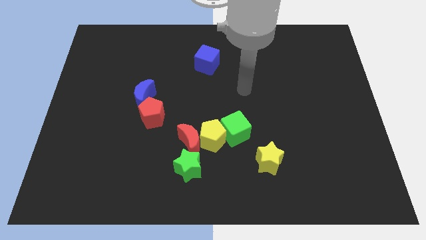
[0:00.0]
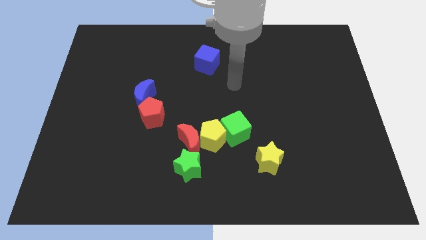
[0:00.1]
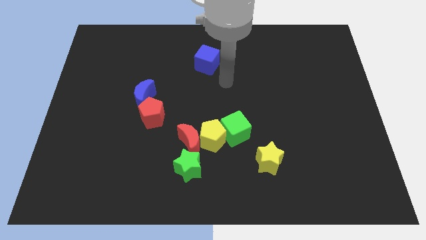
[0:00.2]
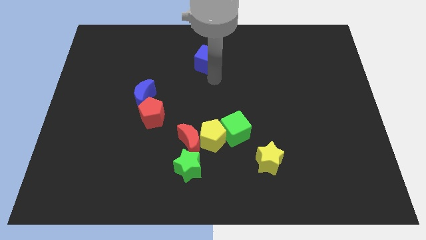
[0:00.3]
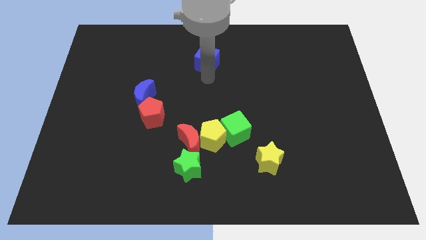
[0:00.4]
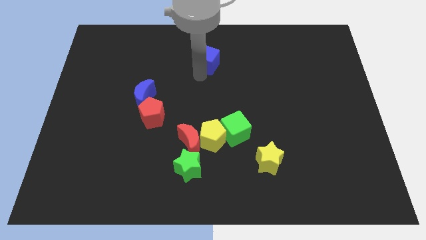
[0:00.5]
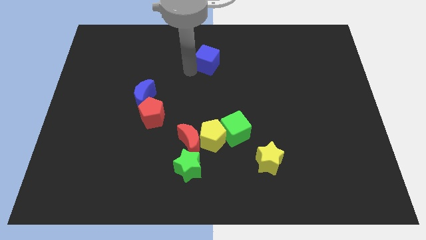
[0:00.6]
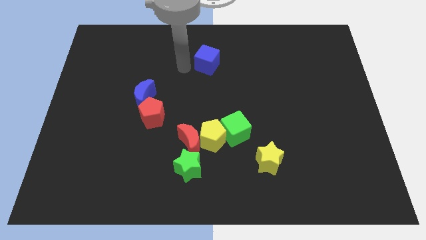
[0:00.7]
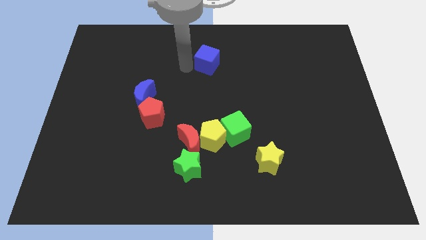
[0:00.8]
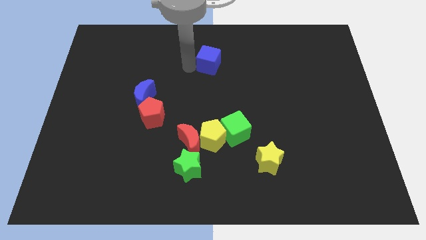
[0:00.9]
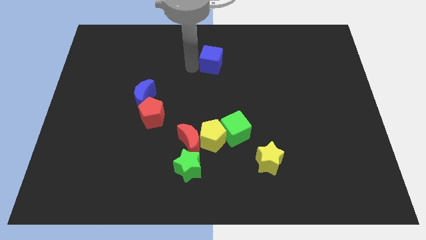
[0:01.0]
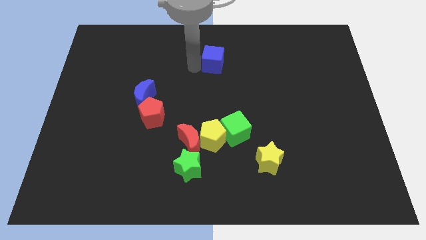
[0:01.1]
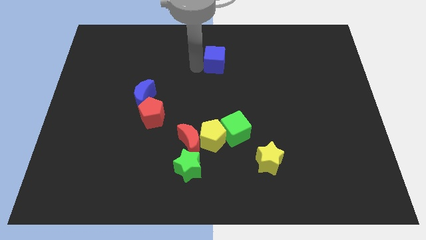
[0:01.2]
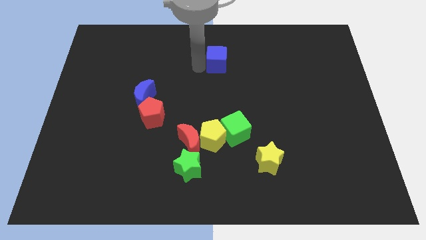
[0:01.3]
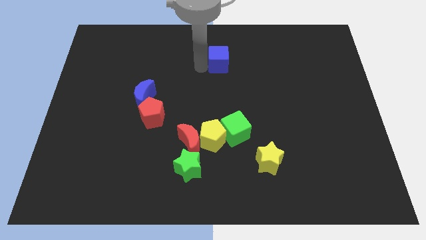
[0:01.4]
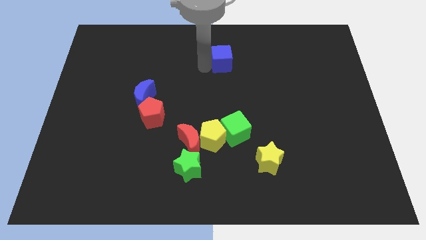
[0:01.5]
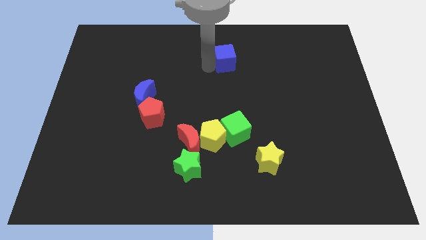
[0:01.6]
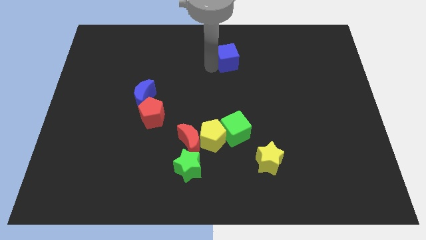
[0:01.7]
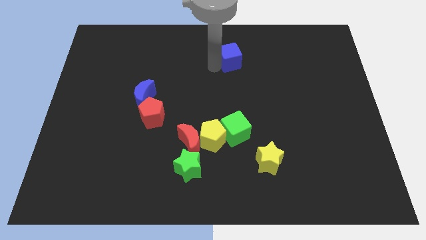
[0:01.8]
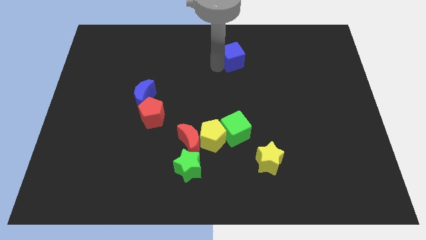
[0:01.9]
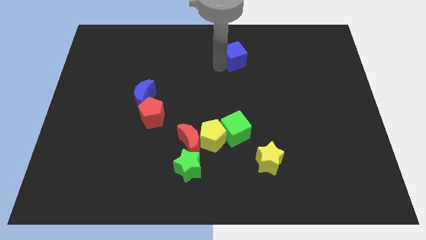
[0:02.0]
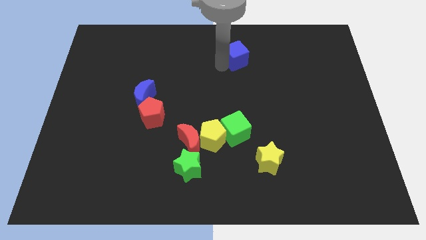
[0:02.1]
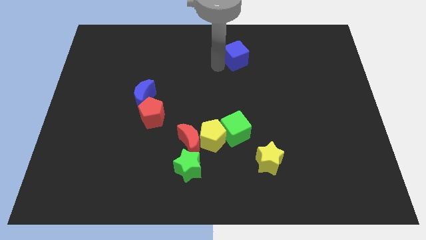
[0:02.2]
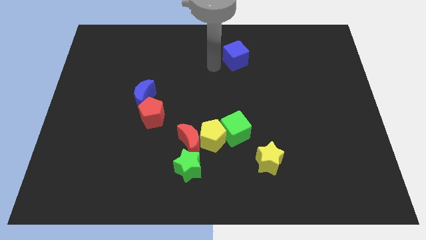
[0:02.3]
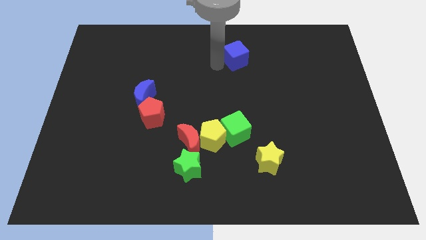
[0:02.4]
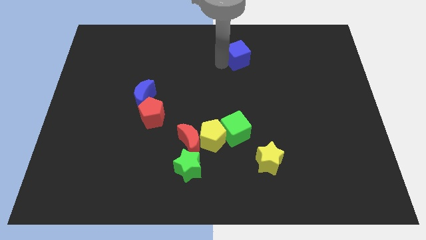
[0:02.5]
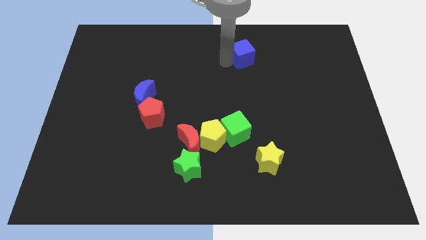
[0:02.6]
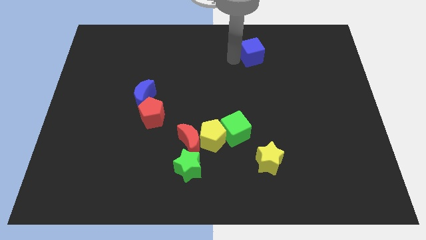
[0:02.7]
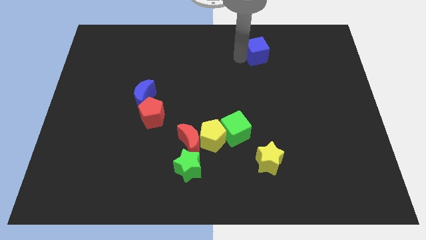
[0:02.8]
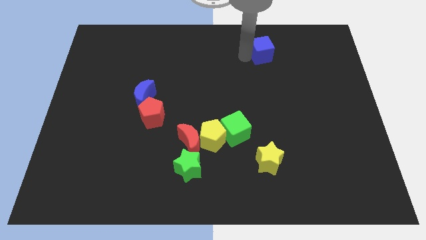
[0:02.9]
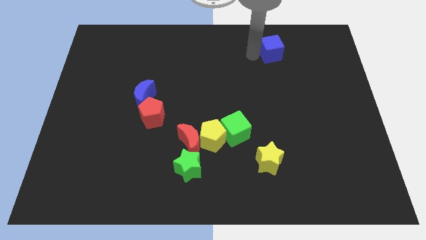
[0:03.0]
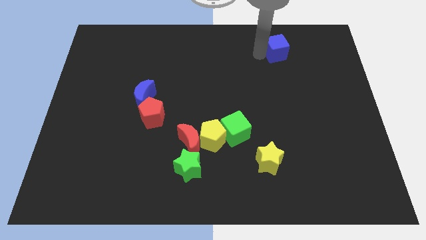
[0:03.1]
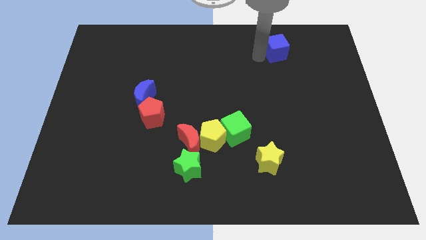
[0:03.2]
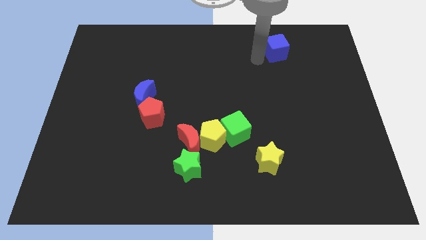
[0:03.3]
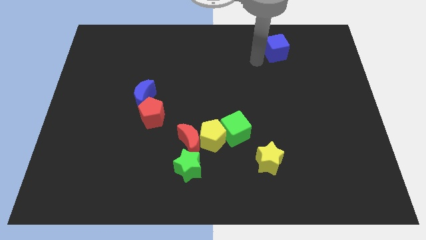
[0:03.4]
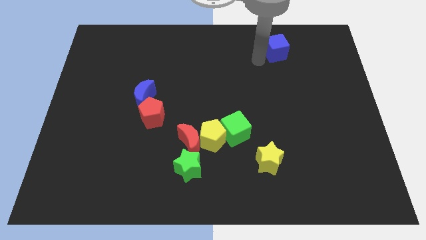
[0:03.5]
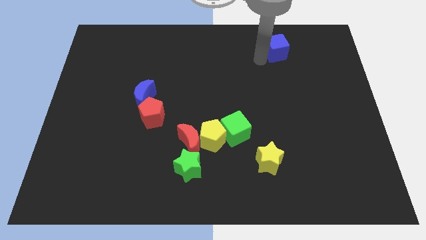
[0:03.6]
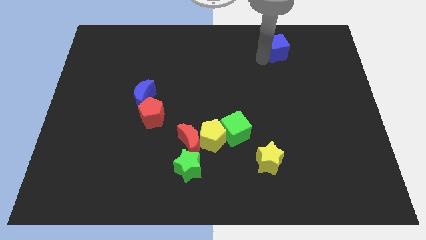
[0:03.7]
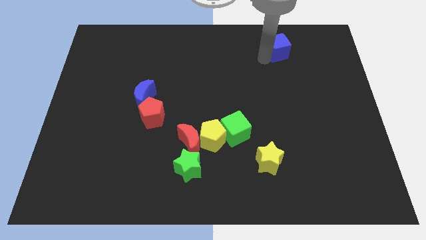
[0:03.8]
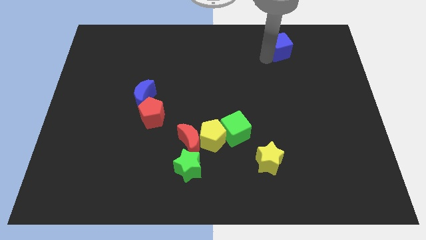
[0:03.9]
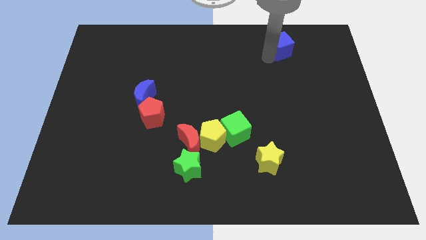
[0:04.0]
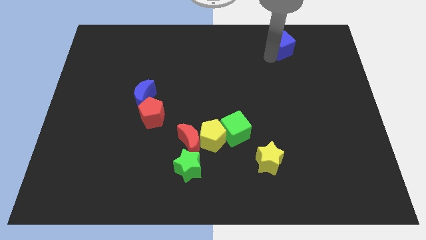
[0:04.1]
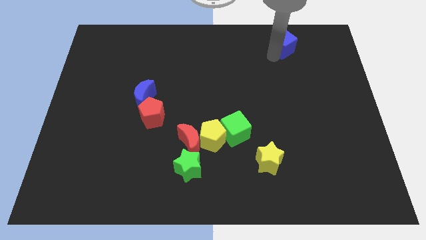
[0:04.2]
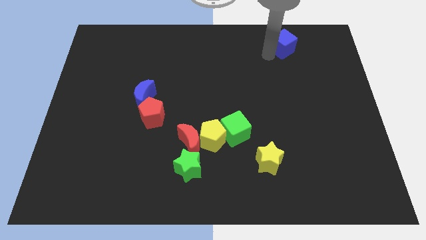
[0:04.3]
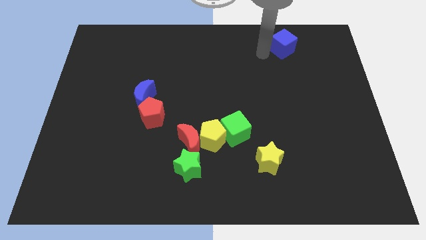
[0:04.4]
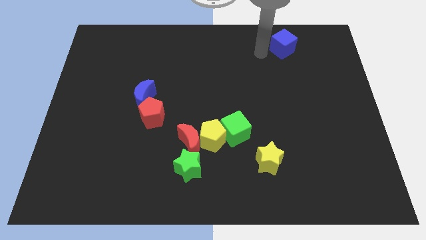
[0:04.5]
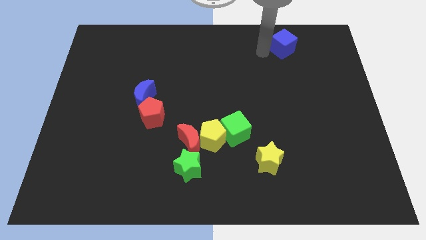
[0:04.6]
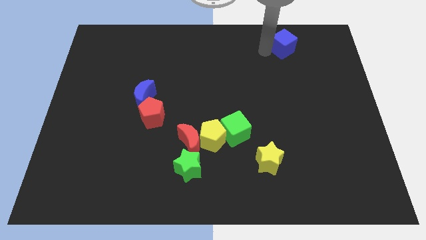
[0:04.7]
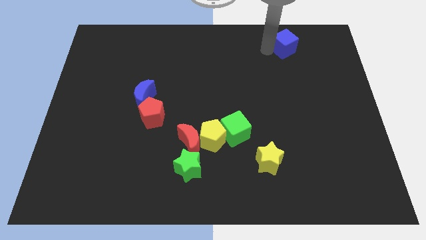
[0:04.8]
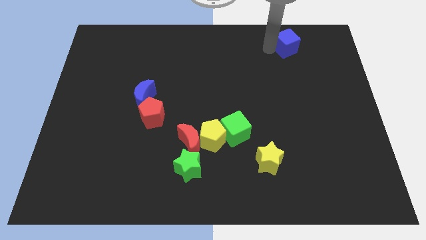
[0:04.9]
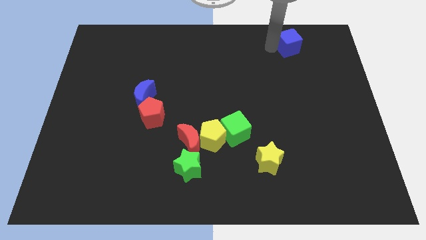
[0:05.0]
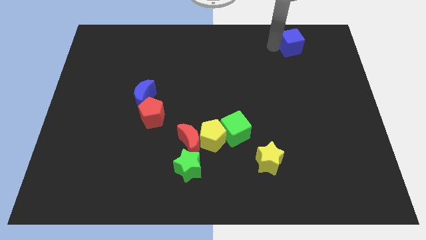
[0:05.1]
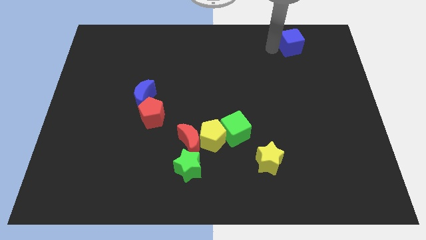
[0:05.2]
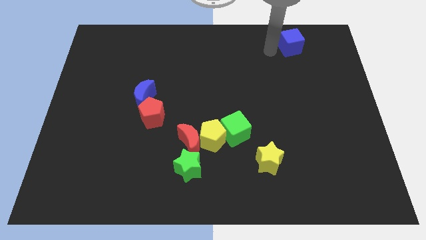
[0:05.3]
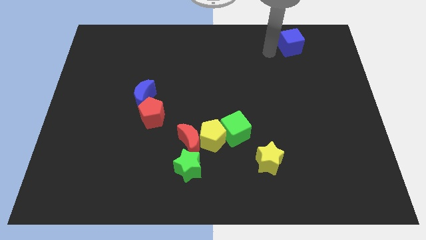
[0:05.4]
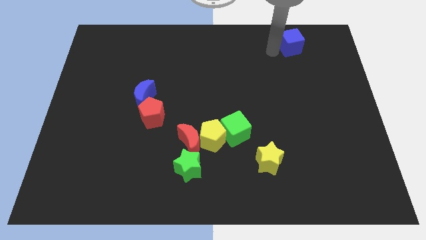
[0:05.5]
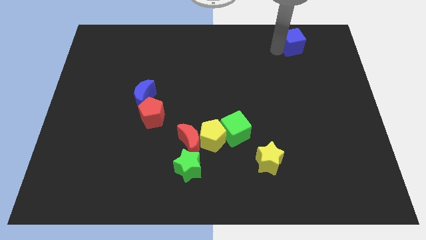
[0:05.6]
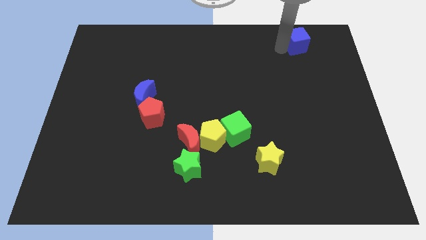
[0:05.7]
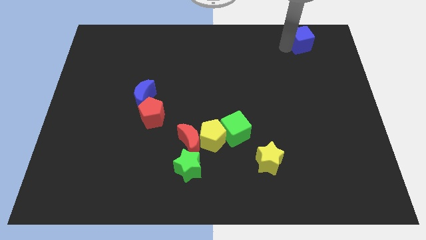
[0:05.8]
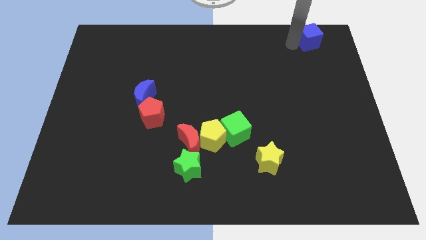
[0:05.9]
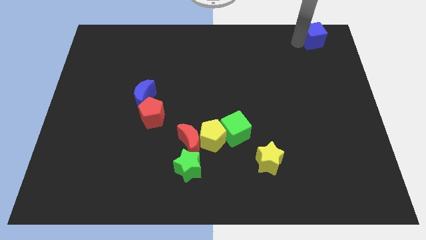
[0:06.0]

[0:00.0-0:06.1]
push the blue cube to the upper right corner
